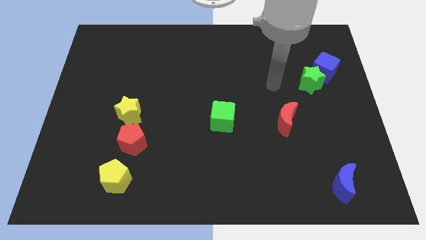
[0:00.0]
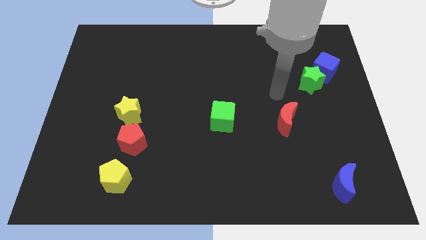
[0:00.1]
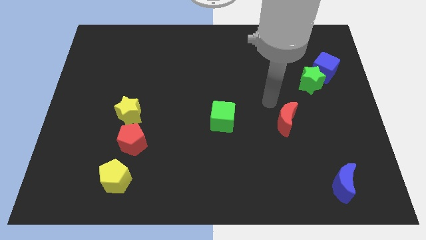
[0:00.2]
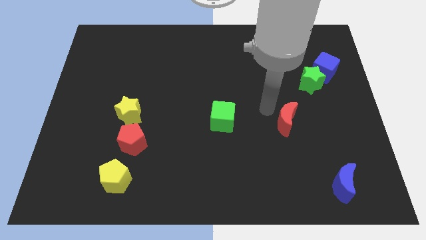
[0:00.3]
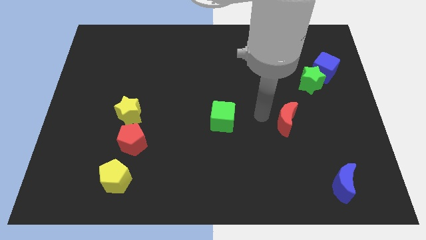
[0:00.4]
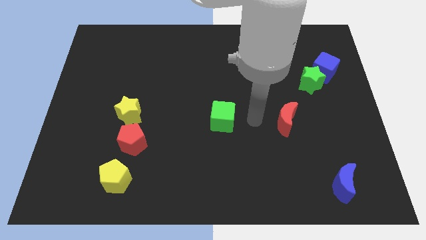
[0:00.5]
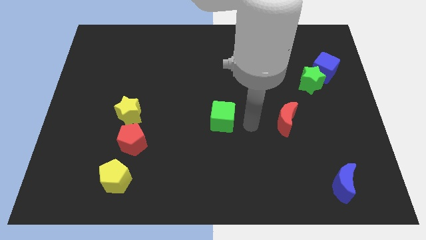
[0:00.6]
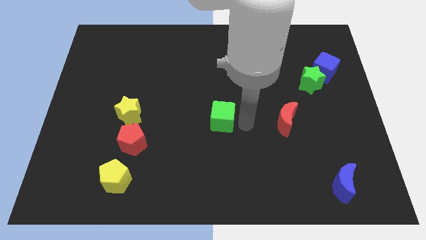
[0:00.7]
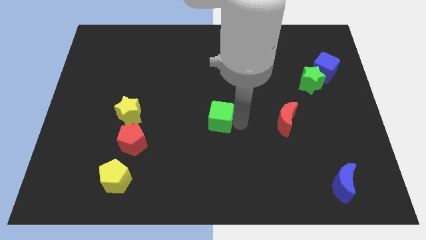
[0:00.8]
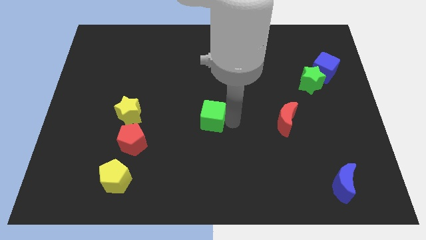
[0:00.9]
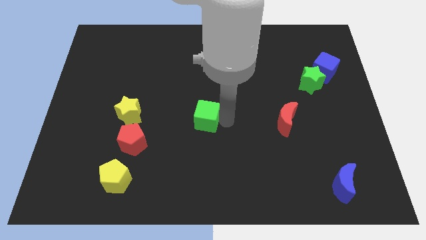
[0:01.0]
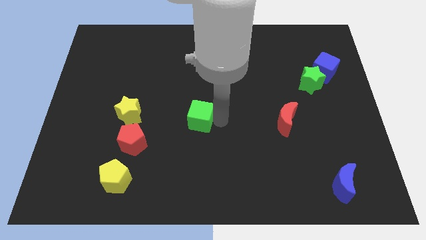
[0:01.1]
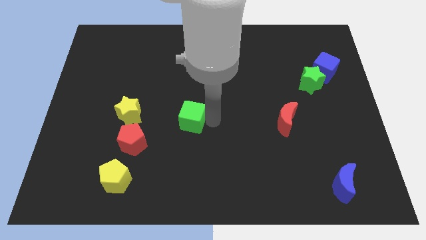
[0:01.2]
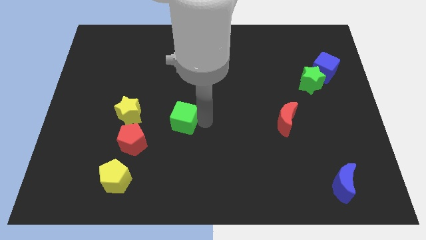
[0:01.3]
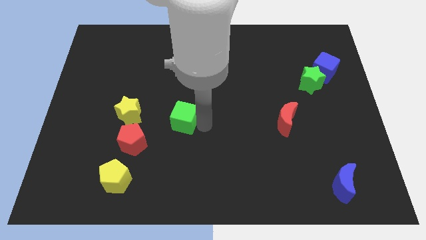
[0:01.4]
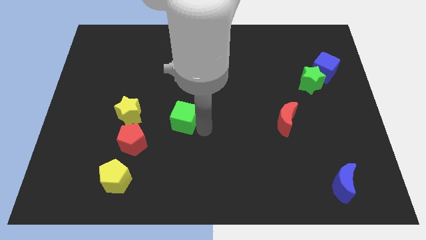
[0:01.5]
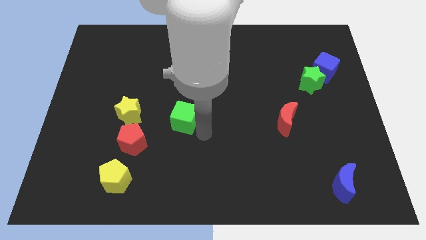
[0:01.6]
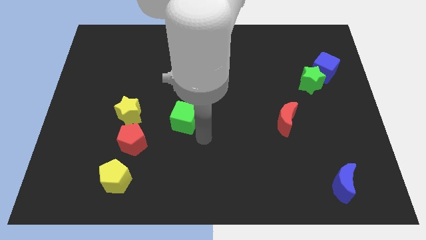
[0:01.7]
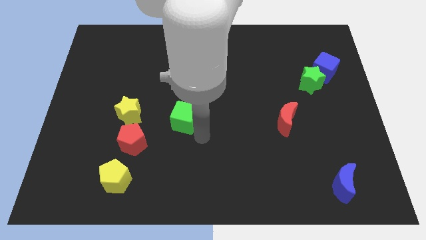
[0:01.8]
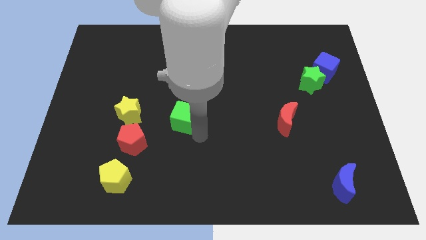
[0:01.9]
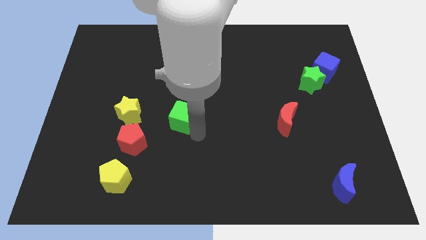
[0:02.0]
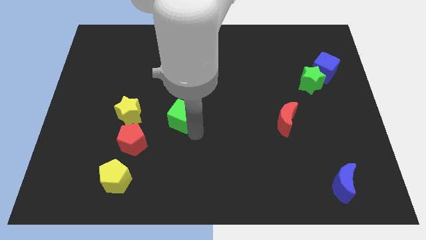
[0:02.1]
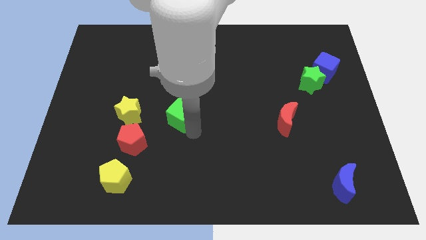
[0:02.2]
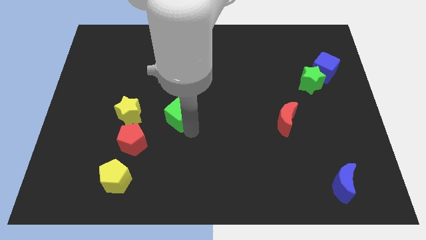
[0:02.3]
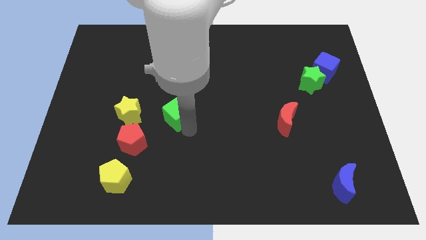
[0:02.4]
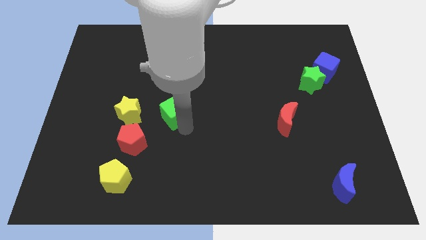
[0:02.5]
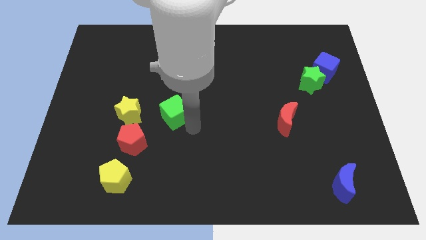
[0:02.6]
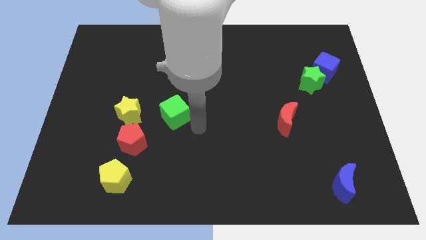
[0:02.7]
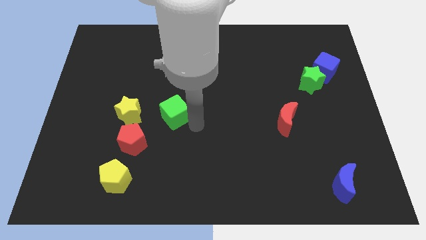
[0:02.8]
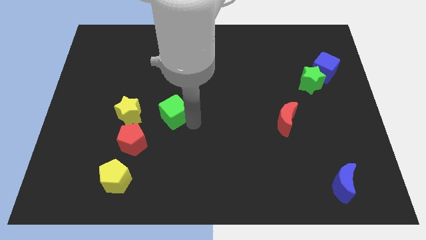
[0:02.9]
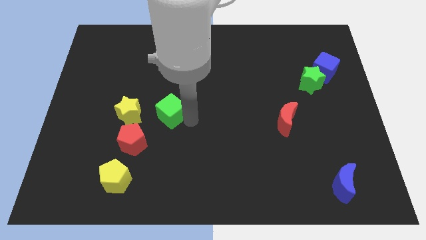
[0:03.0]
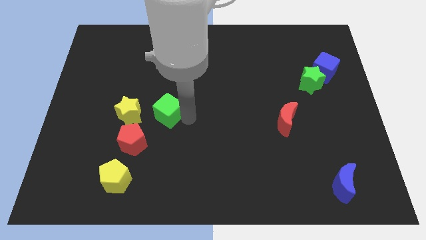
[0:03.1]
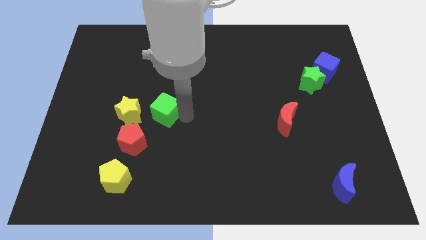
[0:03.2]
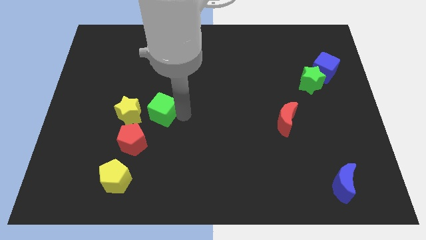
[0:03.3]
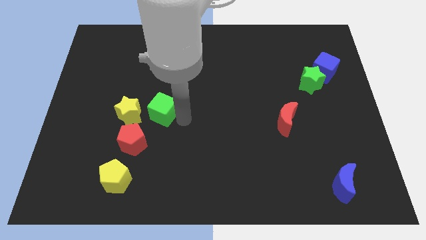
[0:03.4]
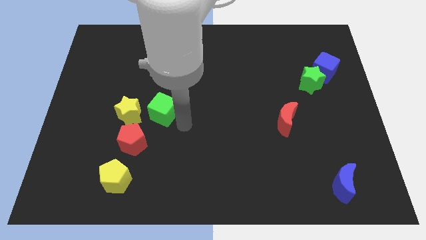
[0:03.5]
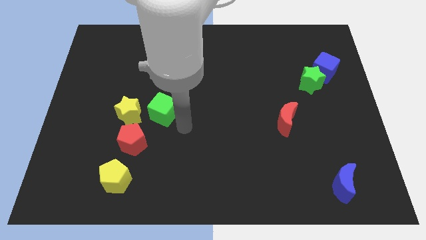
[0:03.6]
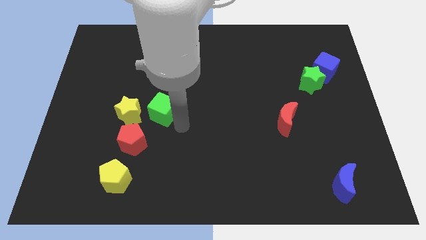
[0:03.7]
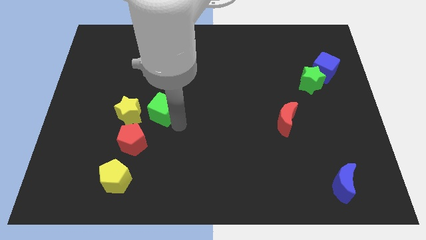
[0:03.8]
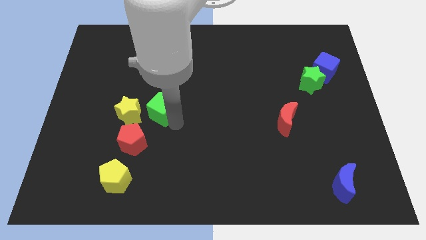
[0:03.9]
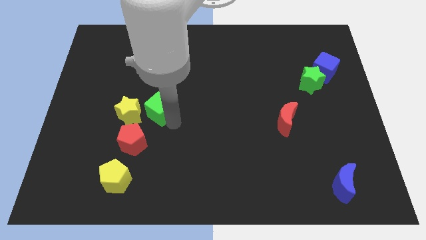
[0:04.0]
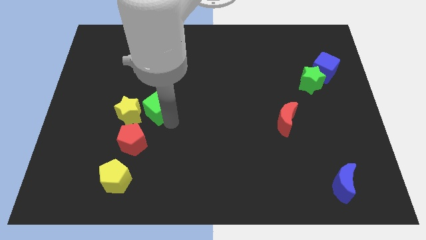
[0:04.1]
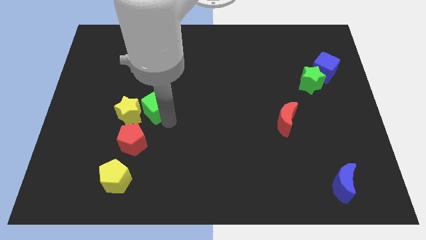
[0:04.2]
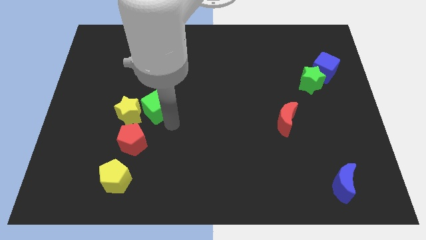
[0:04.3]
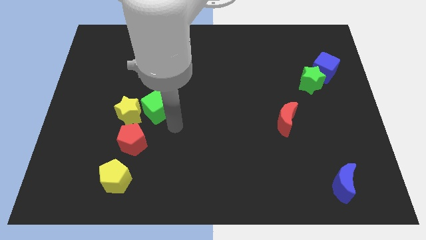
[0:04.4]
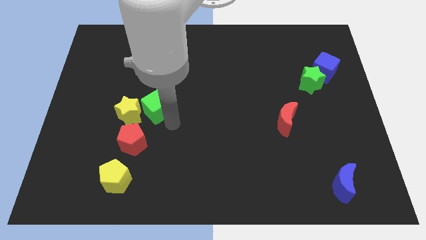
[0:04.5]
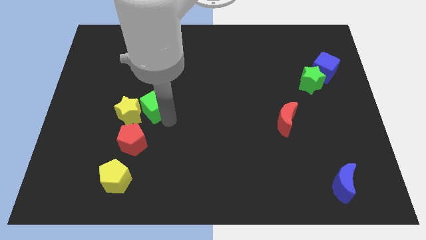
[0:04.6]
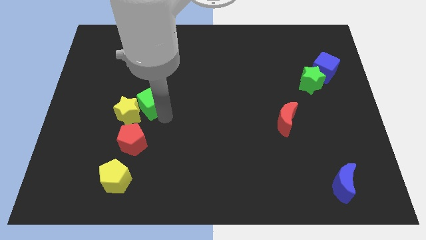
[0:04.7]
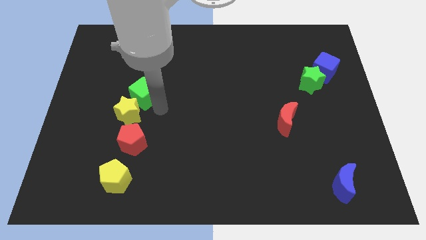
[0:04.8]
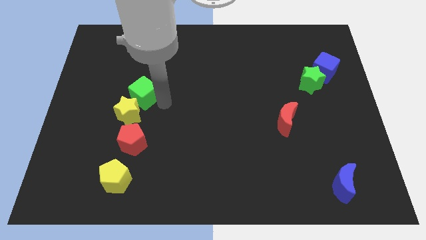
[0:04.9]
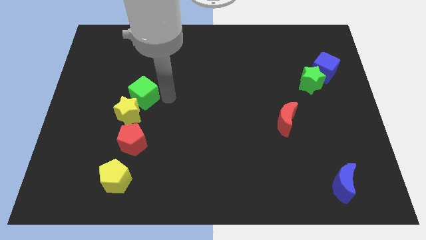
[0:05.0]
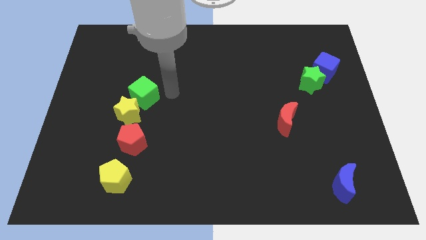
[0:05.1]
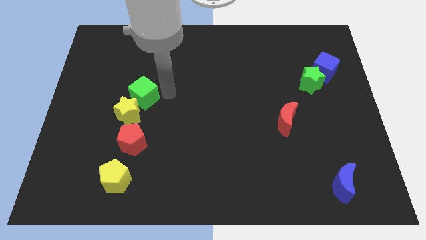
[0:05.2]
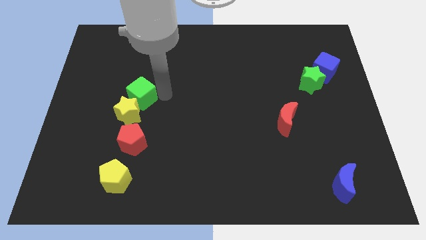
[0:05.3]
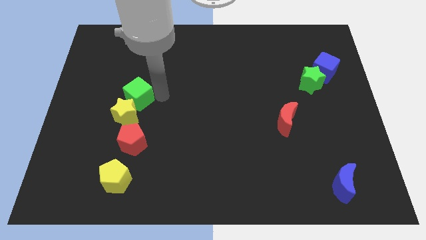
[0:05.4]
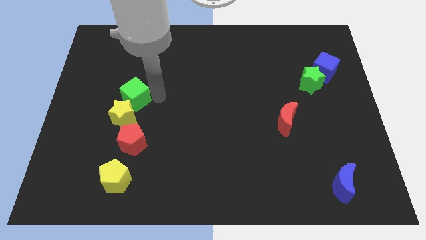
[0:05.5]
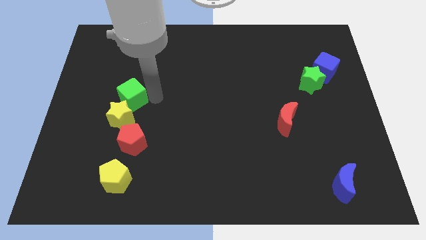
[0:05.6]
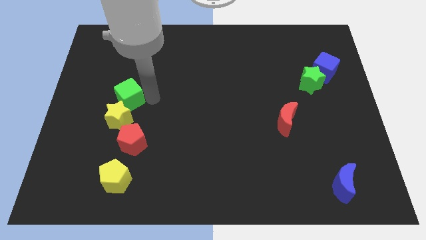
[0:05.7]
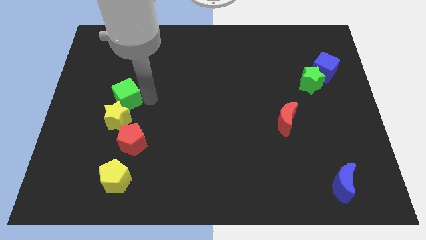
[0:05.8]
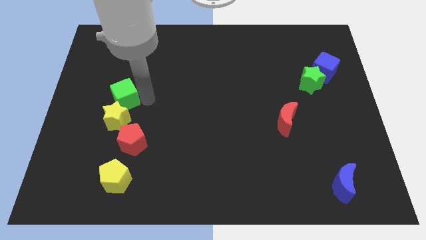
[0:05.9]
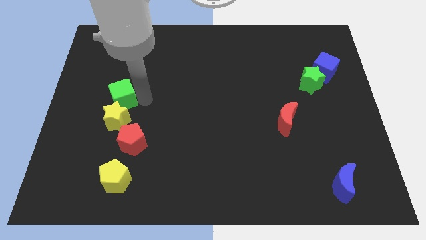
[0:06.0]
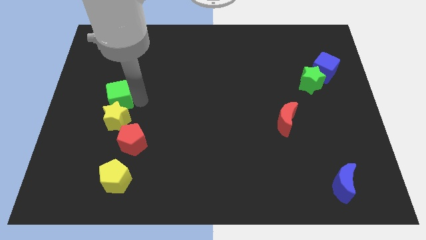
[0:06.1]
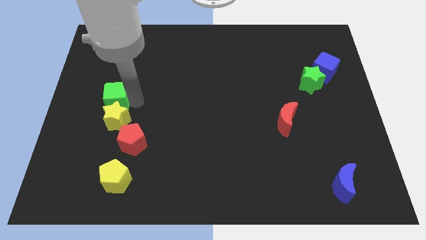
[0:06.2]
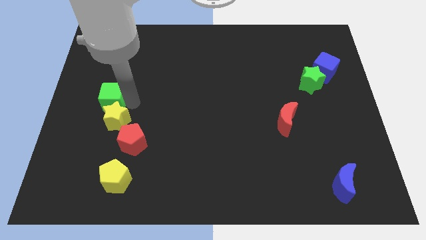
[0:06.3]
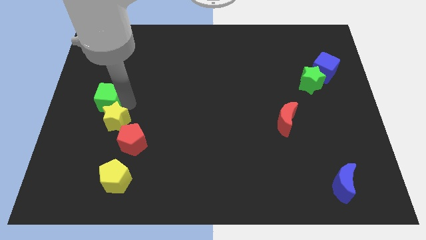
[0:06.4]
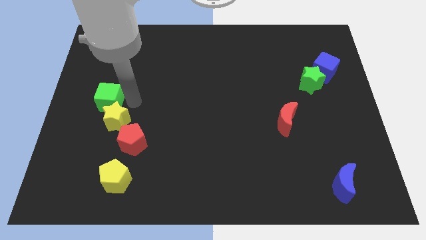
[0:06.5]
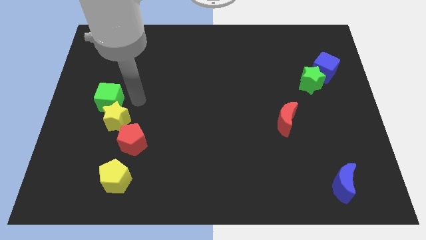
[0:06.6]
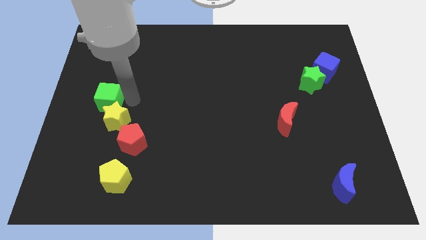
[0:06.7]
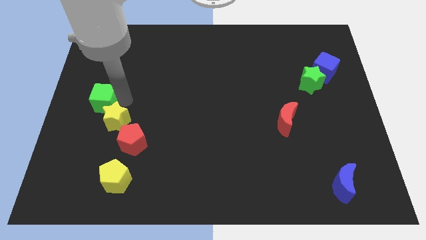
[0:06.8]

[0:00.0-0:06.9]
slide the green cube to the left side of the board
